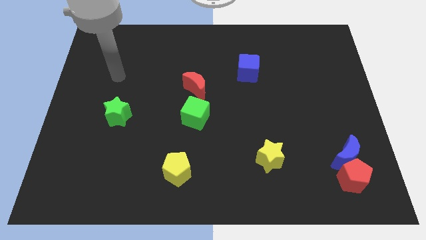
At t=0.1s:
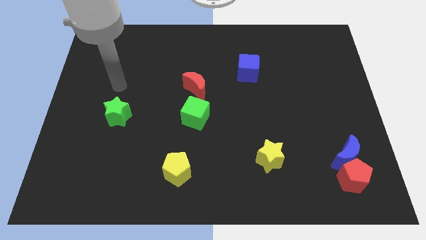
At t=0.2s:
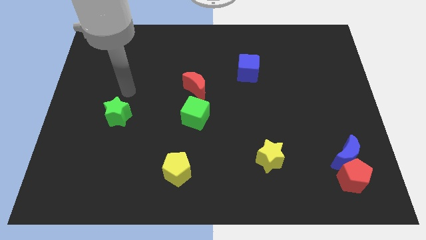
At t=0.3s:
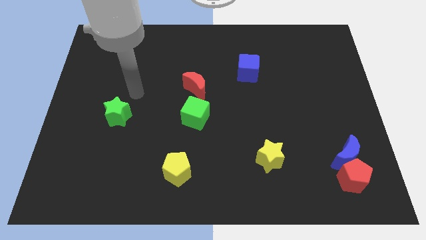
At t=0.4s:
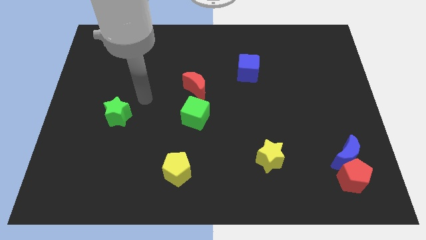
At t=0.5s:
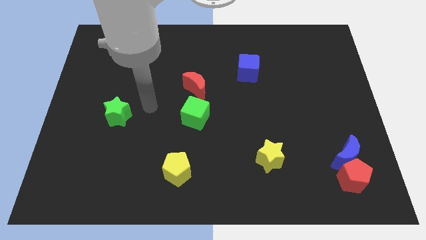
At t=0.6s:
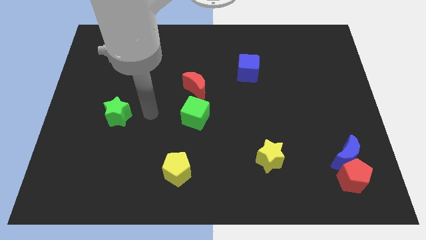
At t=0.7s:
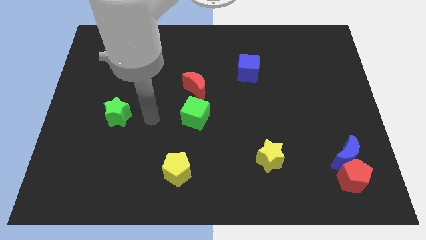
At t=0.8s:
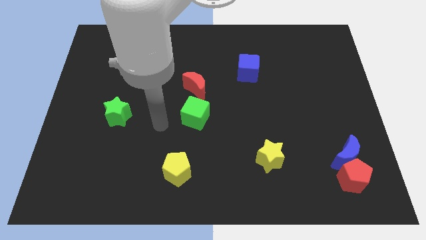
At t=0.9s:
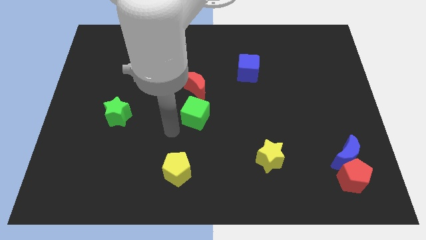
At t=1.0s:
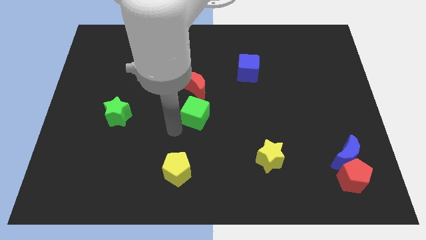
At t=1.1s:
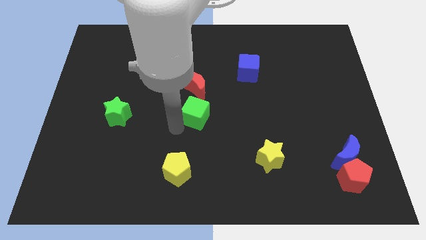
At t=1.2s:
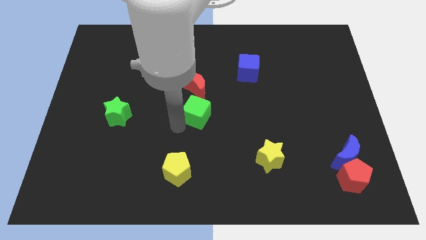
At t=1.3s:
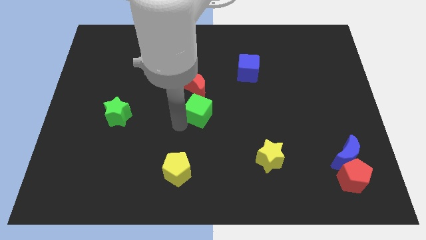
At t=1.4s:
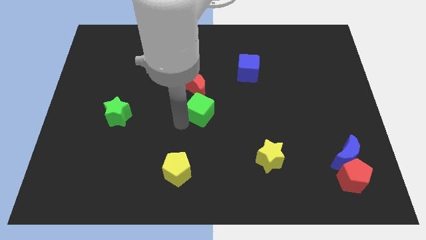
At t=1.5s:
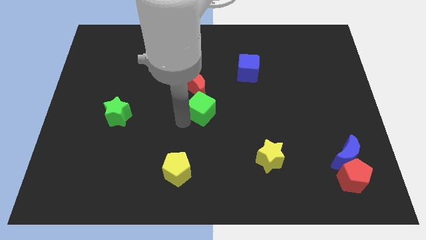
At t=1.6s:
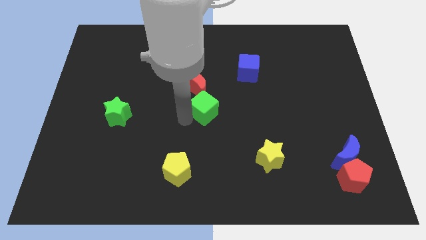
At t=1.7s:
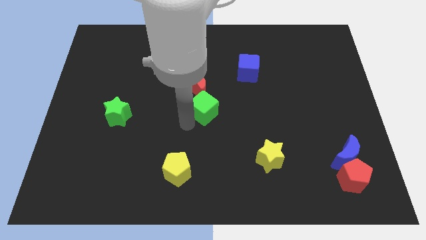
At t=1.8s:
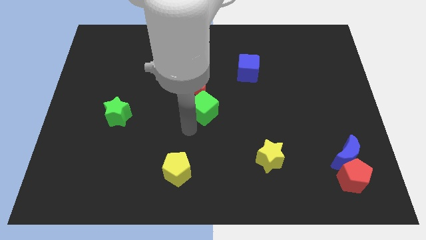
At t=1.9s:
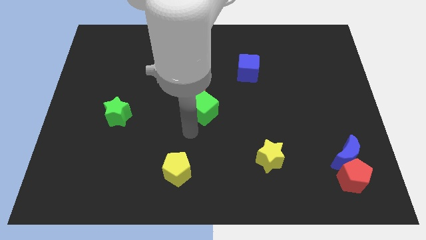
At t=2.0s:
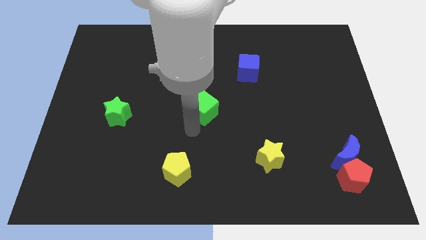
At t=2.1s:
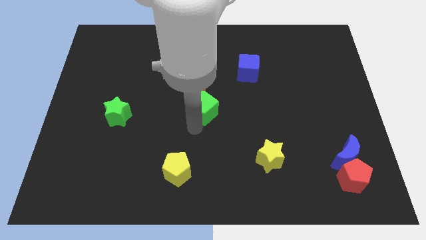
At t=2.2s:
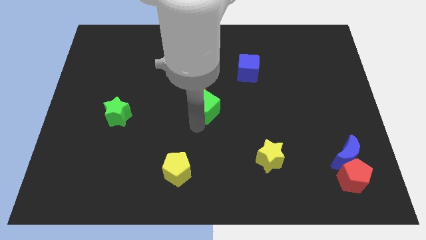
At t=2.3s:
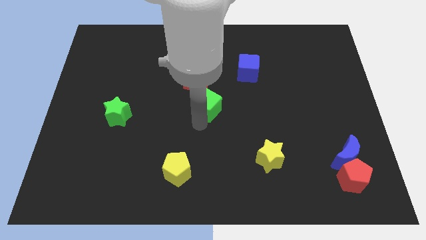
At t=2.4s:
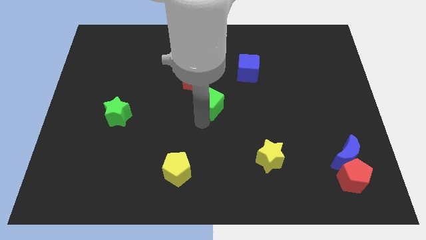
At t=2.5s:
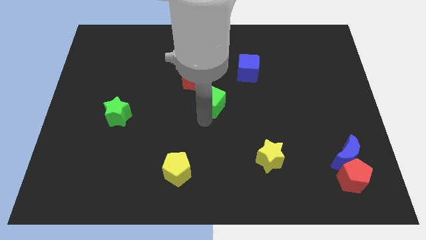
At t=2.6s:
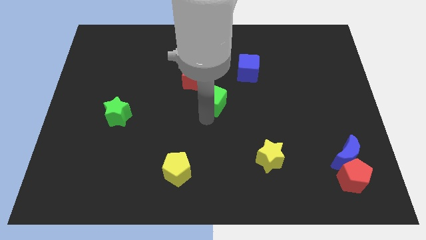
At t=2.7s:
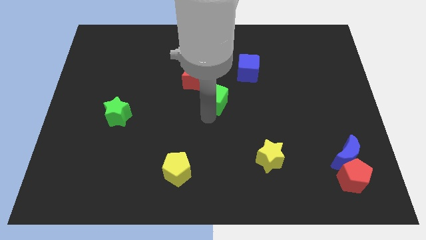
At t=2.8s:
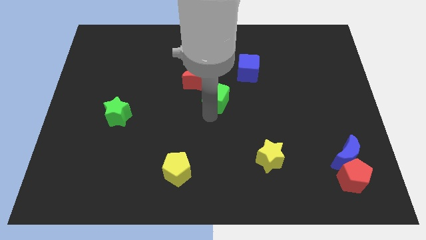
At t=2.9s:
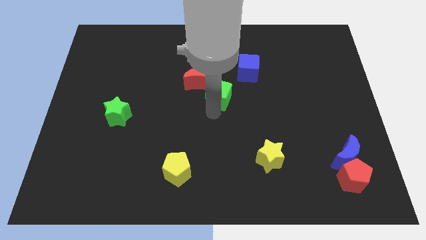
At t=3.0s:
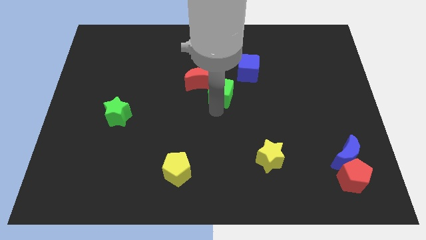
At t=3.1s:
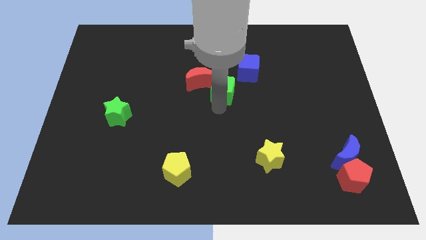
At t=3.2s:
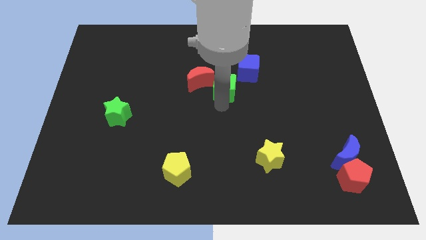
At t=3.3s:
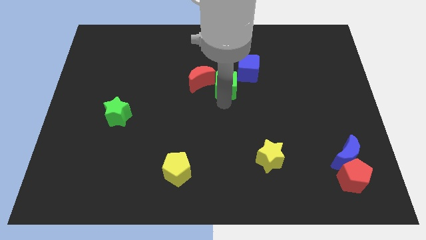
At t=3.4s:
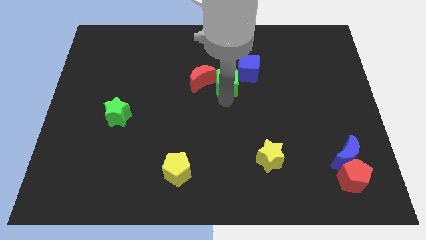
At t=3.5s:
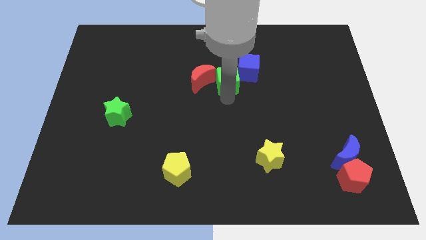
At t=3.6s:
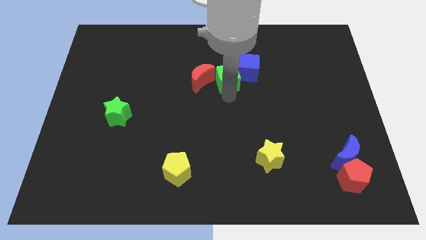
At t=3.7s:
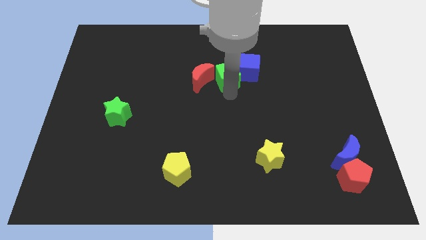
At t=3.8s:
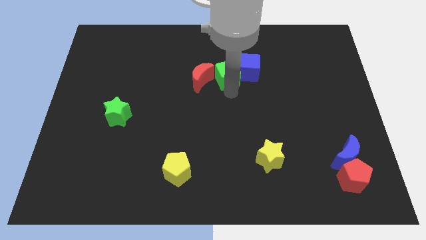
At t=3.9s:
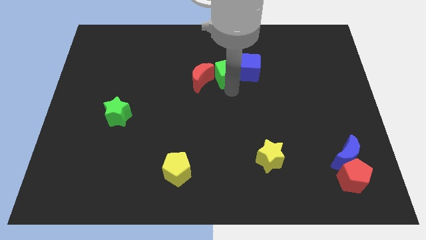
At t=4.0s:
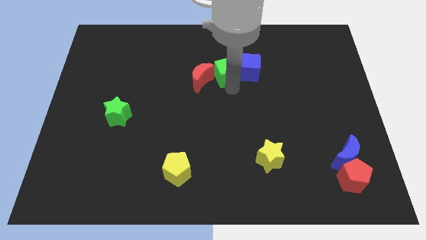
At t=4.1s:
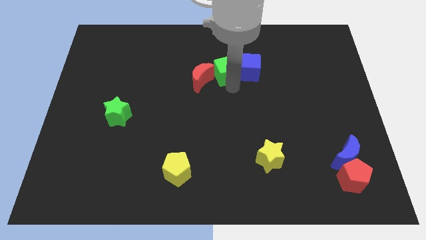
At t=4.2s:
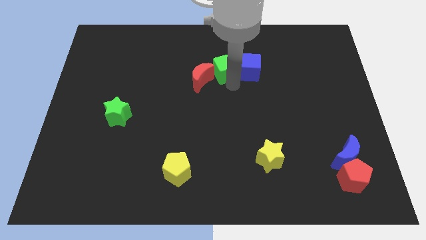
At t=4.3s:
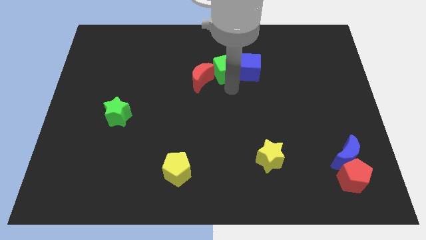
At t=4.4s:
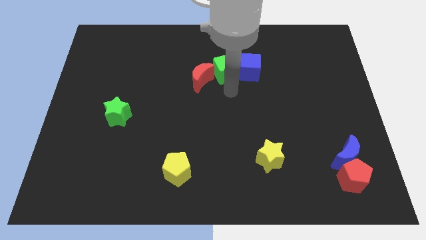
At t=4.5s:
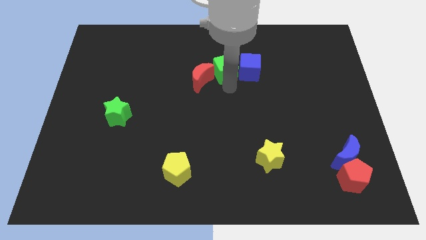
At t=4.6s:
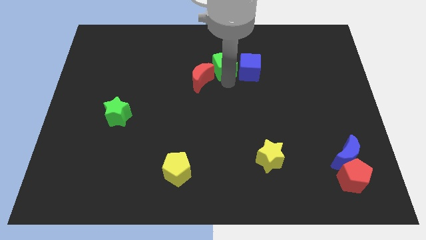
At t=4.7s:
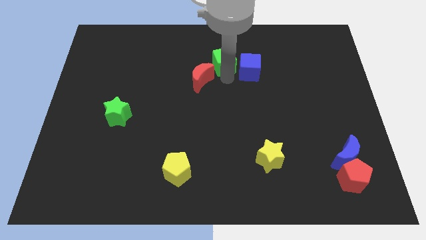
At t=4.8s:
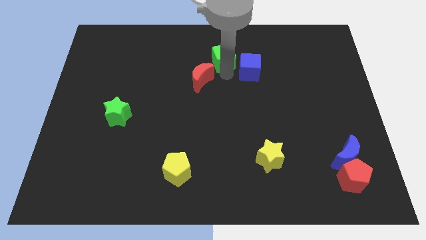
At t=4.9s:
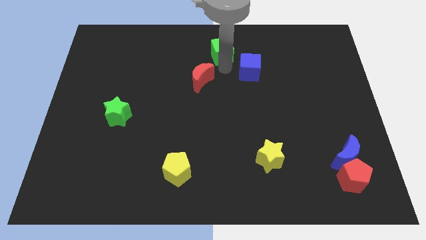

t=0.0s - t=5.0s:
slide the green cube to the top

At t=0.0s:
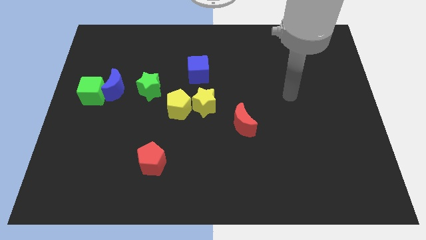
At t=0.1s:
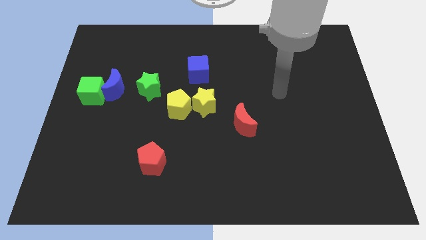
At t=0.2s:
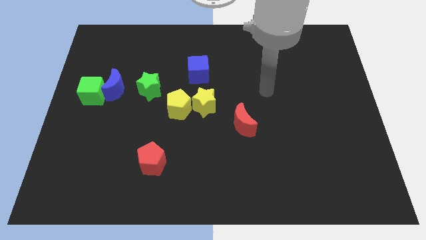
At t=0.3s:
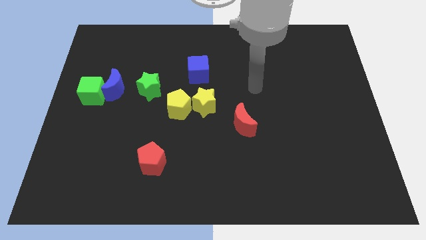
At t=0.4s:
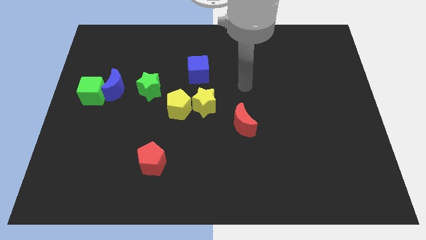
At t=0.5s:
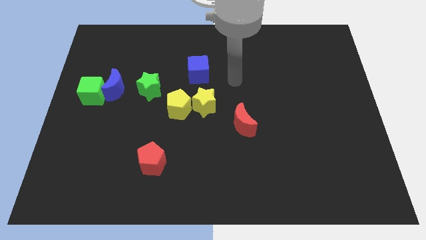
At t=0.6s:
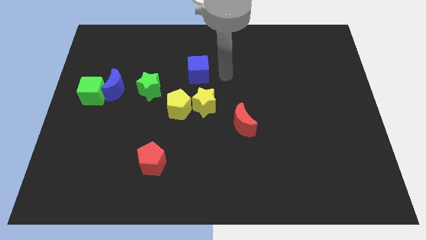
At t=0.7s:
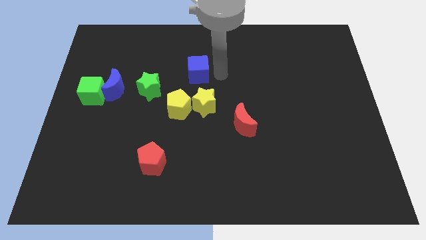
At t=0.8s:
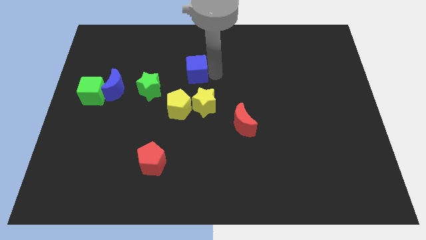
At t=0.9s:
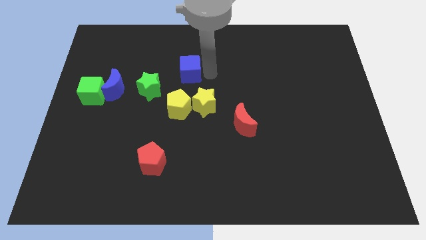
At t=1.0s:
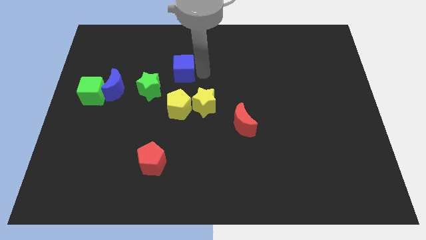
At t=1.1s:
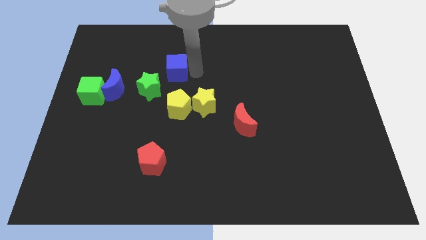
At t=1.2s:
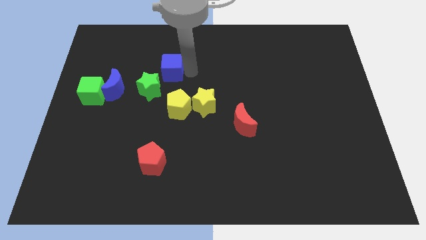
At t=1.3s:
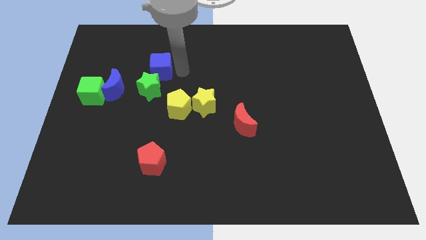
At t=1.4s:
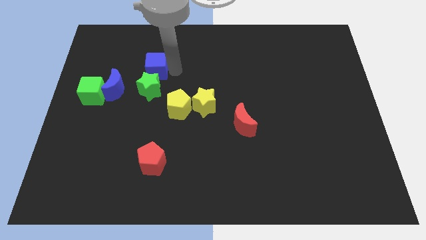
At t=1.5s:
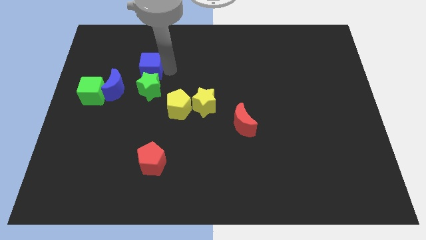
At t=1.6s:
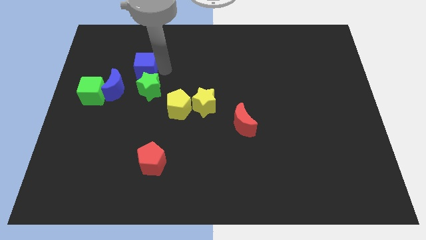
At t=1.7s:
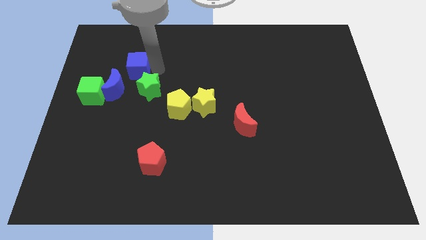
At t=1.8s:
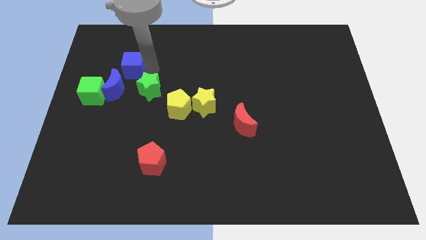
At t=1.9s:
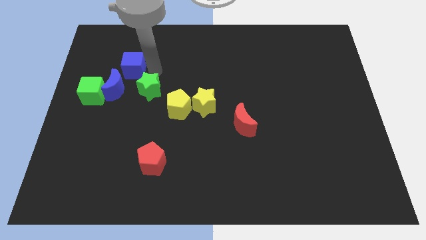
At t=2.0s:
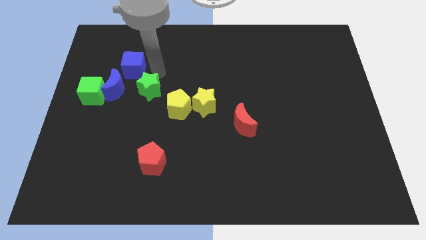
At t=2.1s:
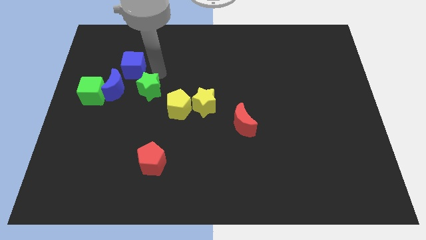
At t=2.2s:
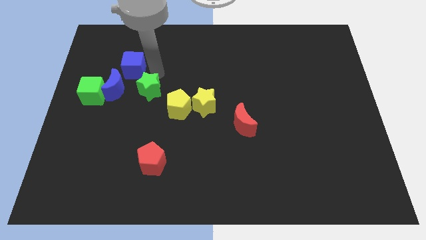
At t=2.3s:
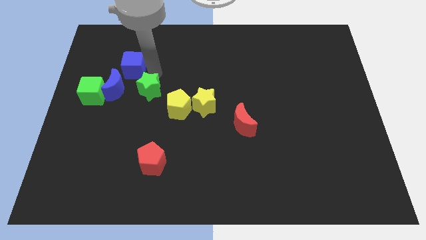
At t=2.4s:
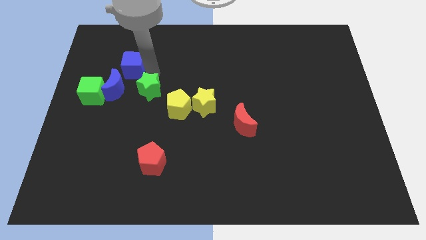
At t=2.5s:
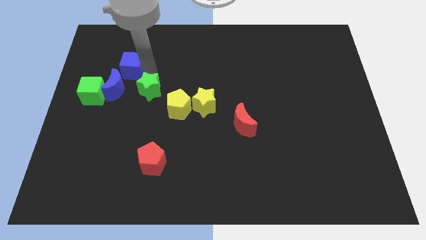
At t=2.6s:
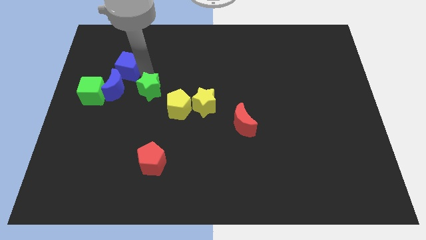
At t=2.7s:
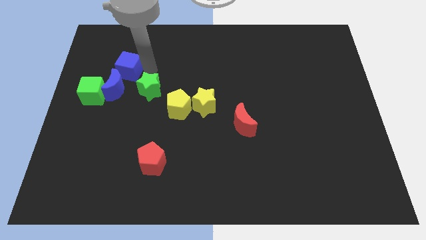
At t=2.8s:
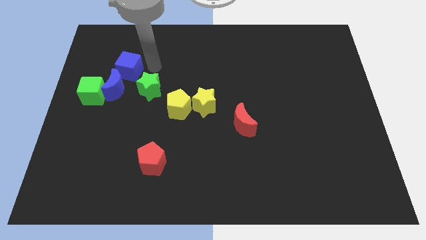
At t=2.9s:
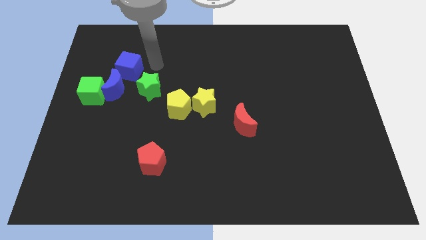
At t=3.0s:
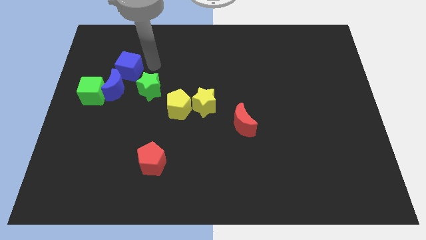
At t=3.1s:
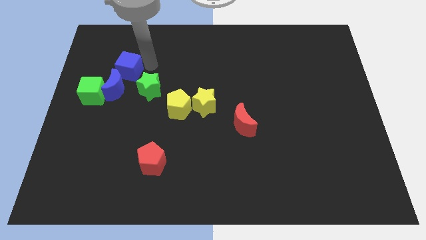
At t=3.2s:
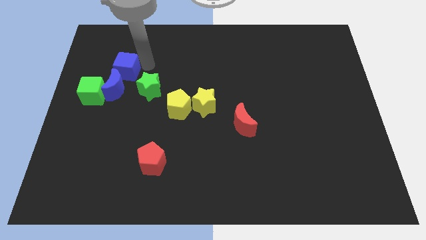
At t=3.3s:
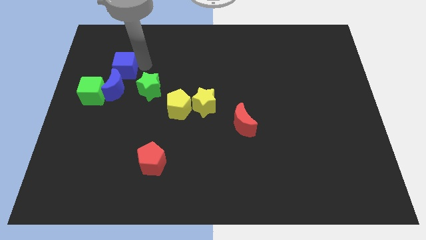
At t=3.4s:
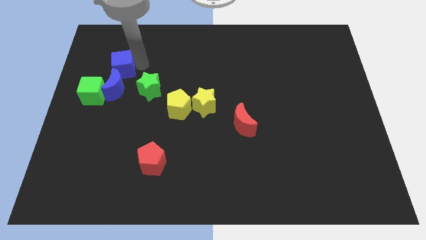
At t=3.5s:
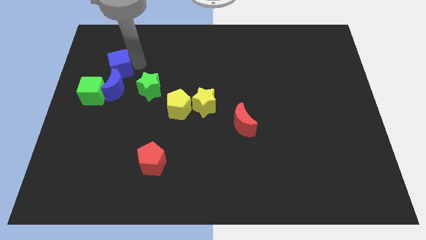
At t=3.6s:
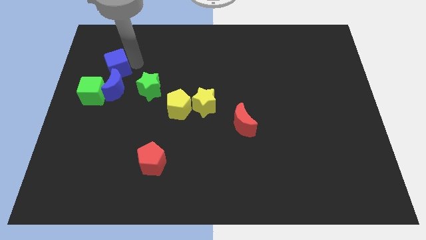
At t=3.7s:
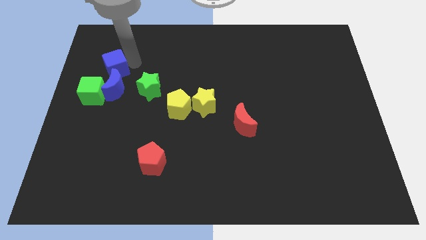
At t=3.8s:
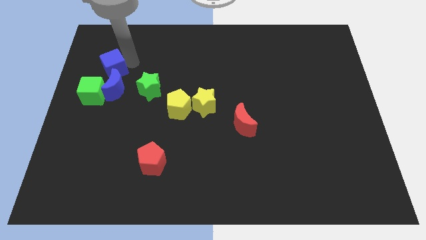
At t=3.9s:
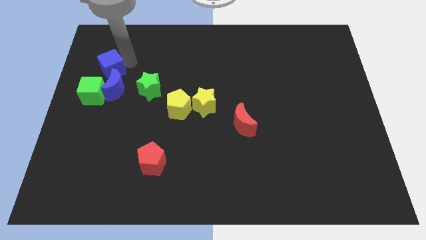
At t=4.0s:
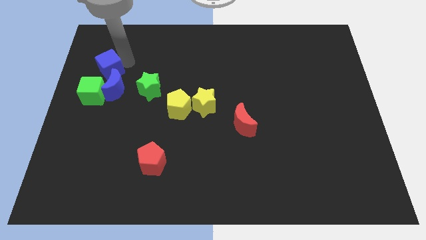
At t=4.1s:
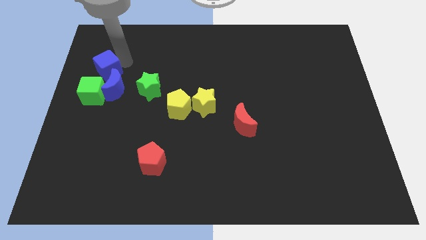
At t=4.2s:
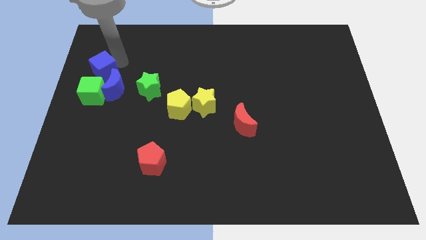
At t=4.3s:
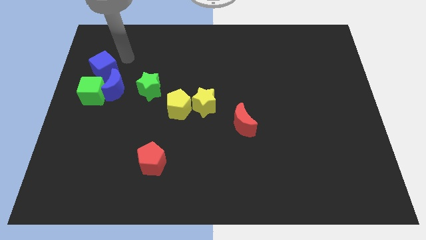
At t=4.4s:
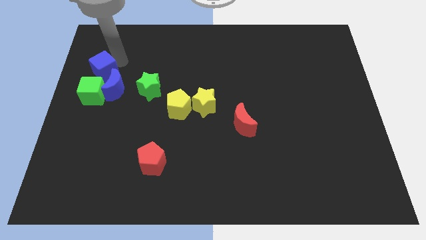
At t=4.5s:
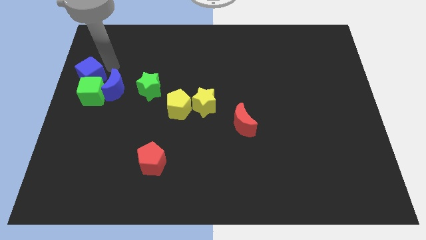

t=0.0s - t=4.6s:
put the blue cube to the left side of the board
